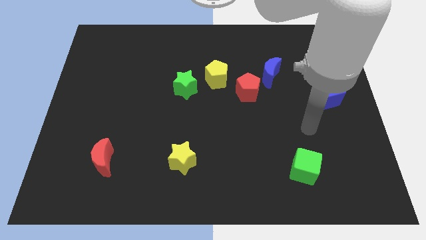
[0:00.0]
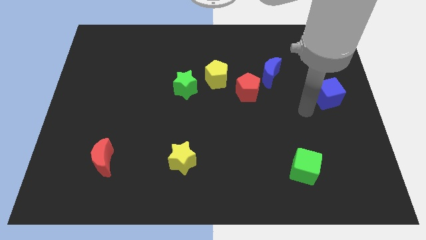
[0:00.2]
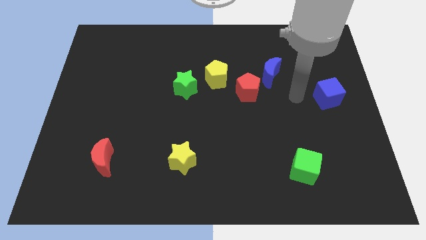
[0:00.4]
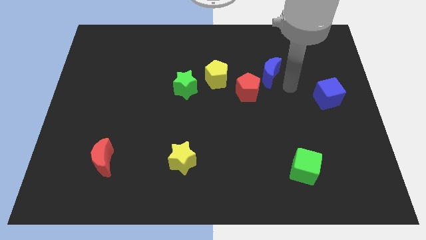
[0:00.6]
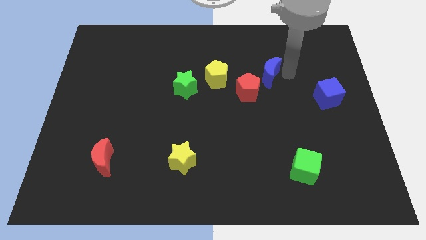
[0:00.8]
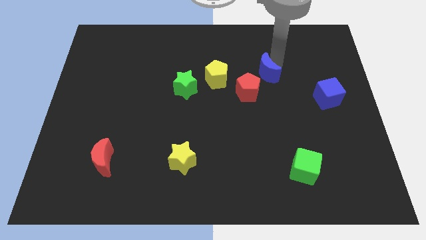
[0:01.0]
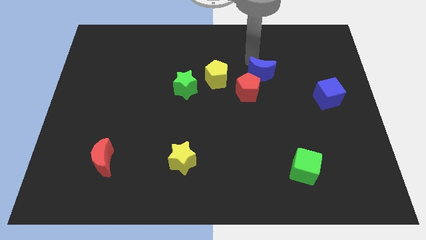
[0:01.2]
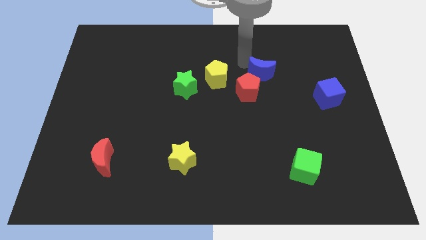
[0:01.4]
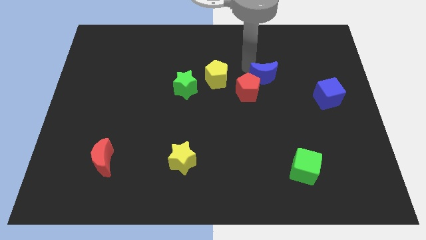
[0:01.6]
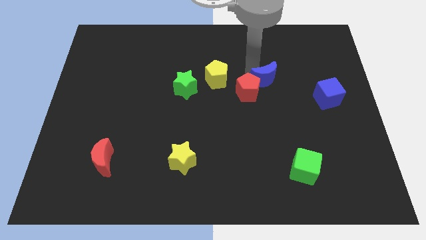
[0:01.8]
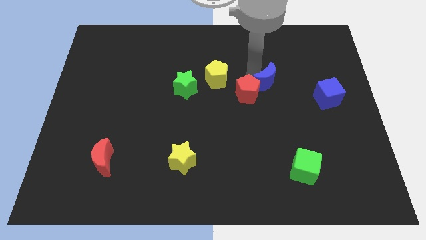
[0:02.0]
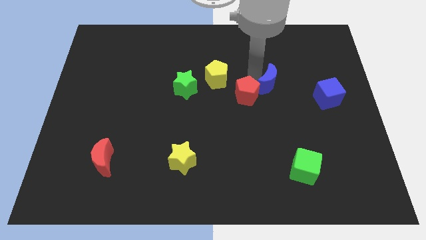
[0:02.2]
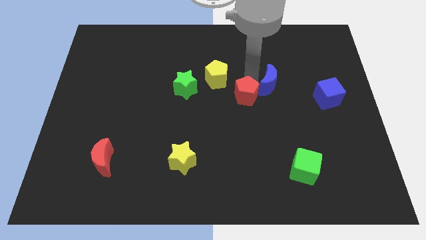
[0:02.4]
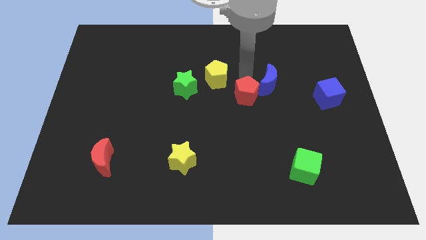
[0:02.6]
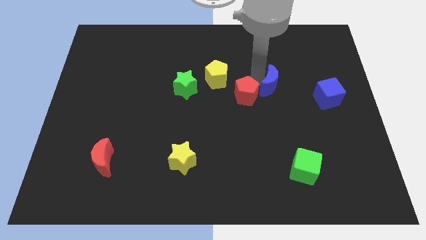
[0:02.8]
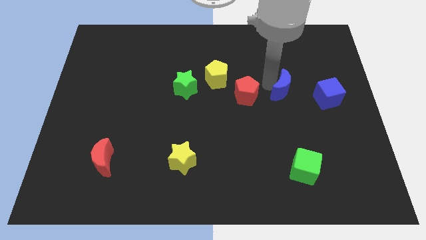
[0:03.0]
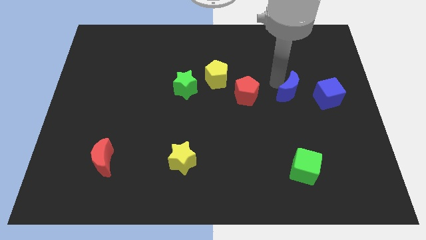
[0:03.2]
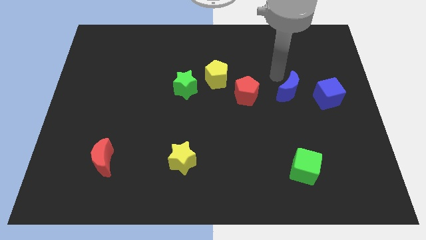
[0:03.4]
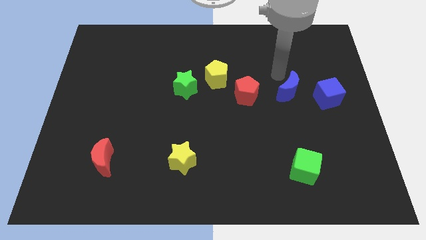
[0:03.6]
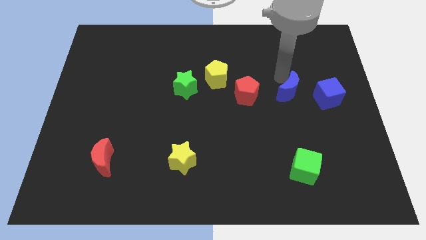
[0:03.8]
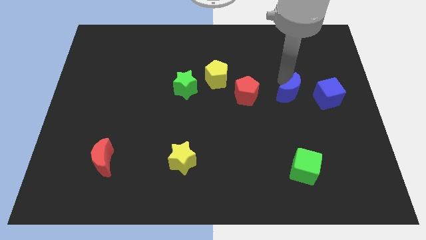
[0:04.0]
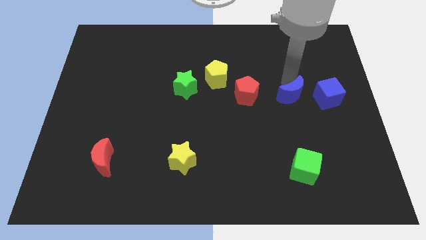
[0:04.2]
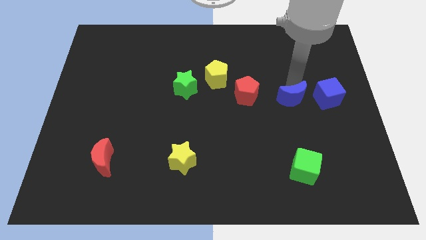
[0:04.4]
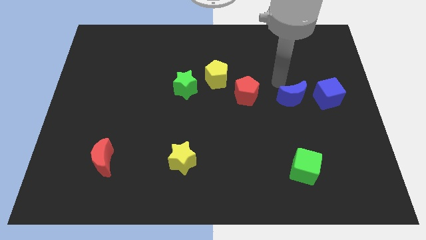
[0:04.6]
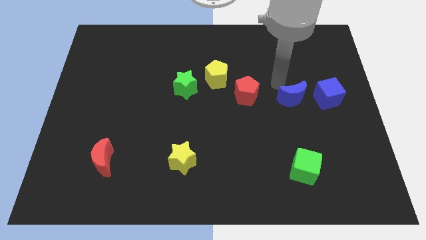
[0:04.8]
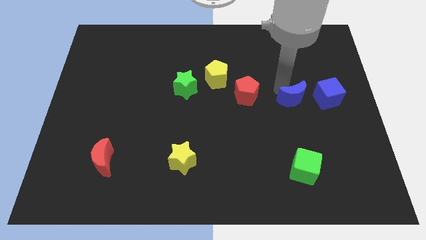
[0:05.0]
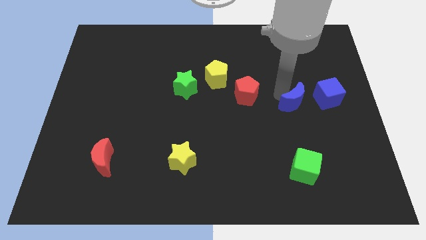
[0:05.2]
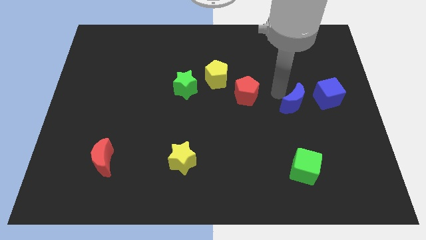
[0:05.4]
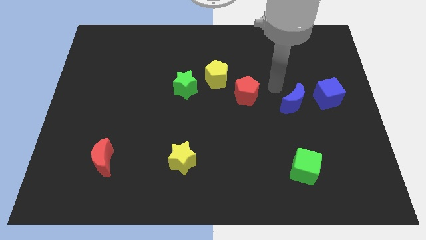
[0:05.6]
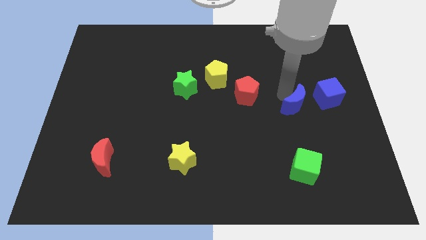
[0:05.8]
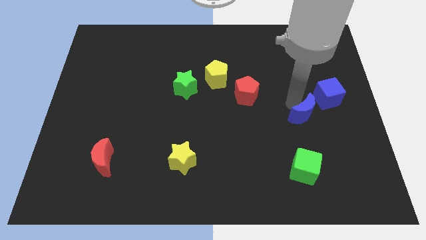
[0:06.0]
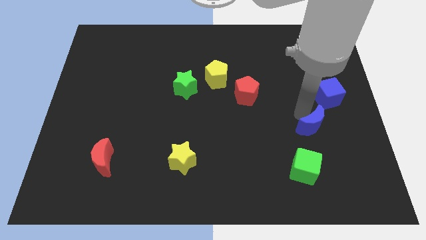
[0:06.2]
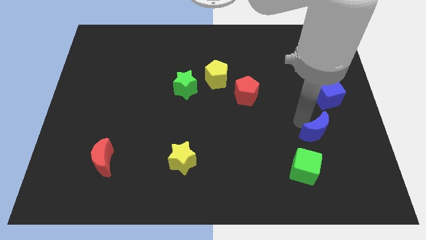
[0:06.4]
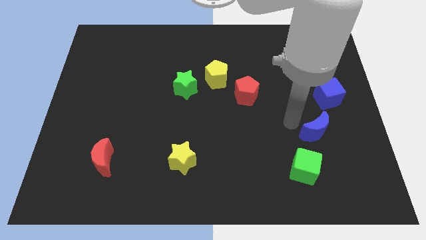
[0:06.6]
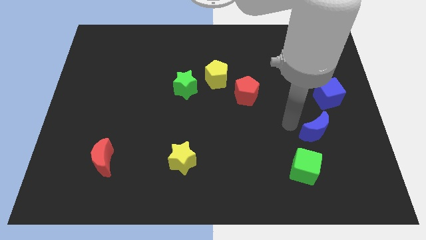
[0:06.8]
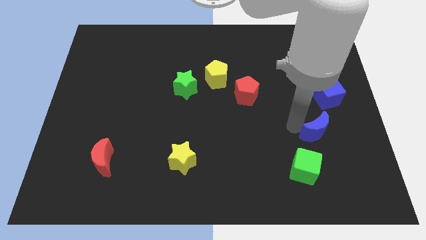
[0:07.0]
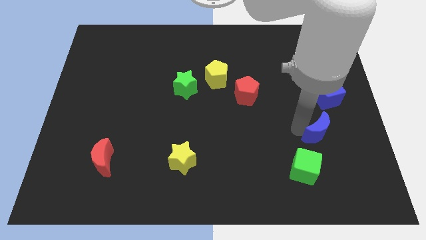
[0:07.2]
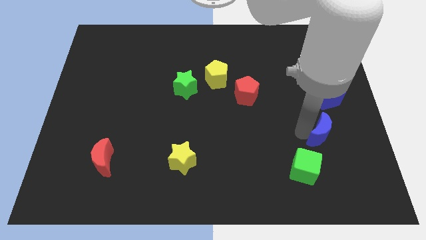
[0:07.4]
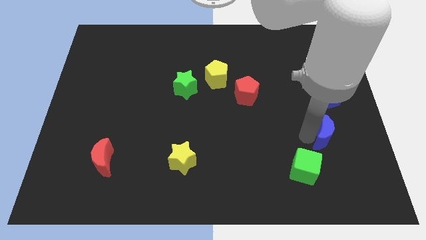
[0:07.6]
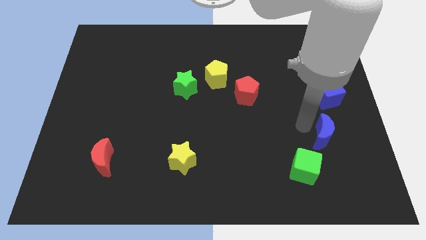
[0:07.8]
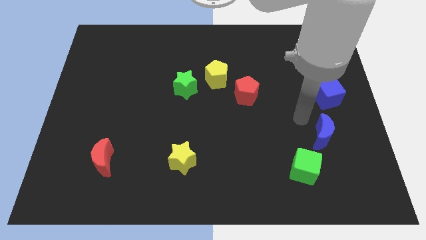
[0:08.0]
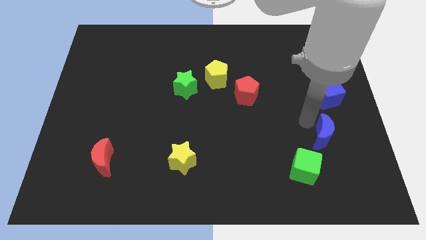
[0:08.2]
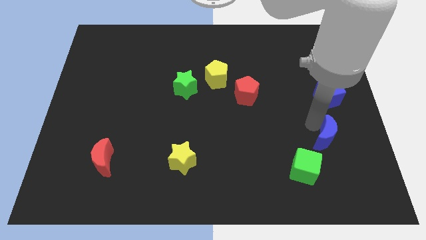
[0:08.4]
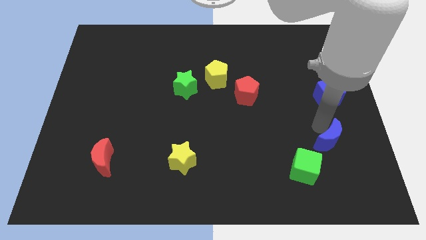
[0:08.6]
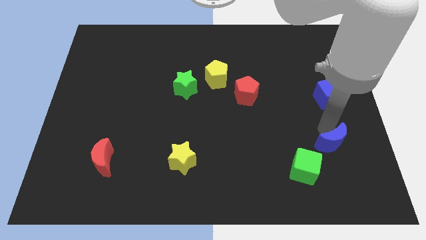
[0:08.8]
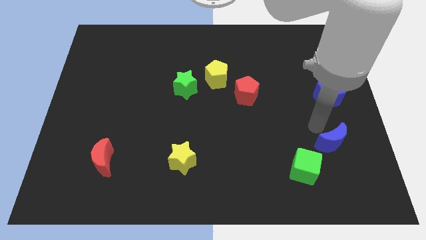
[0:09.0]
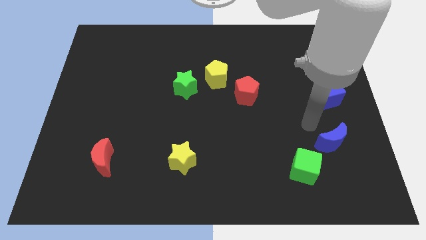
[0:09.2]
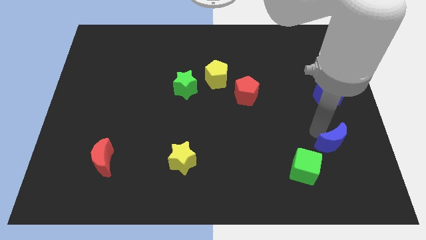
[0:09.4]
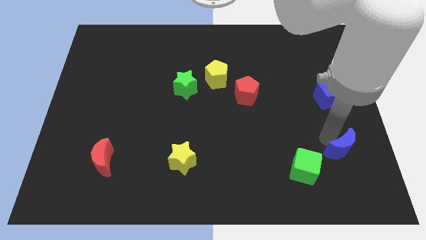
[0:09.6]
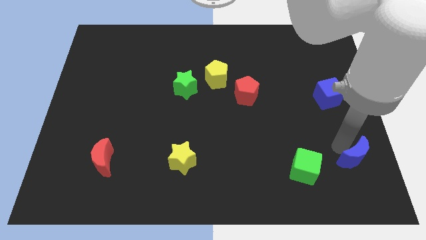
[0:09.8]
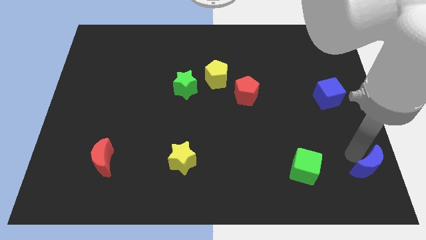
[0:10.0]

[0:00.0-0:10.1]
slide the blue moon to the bottom right corner

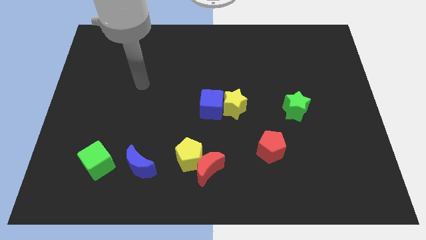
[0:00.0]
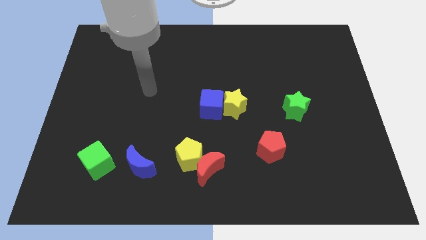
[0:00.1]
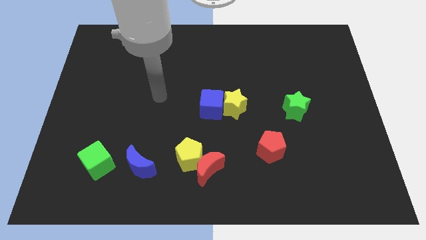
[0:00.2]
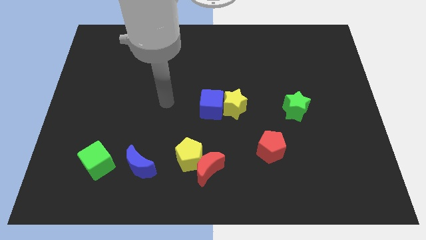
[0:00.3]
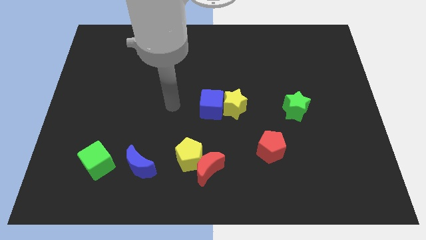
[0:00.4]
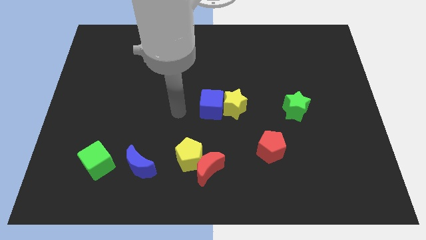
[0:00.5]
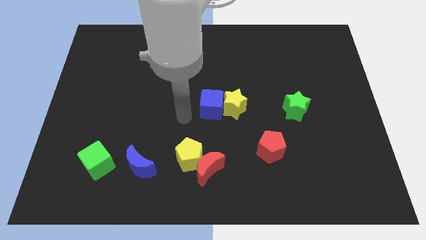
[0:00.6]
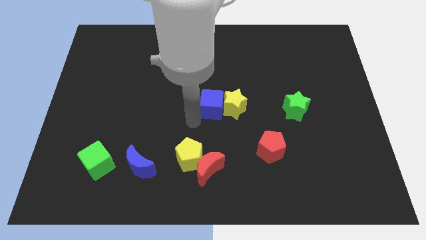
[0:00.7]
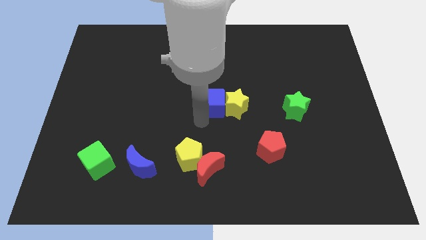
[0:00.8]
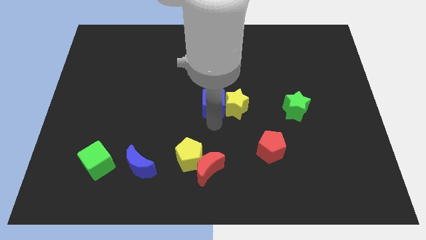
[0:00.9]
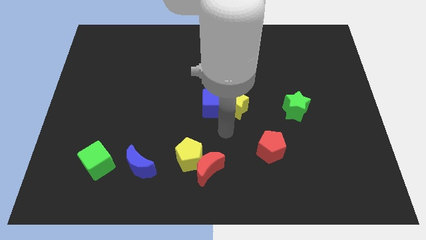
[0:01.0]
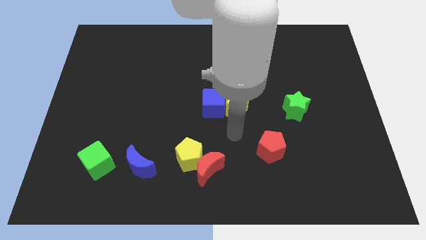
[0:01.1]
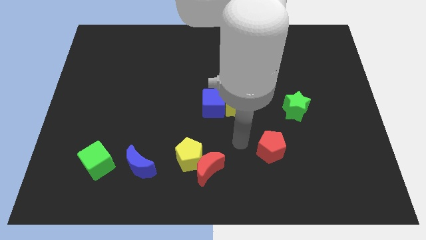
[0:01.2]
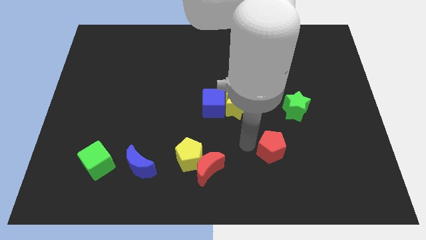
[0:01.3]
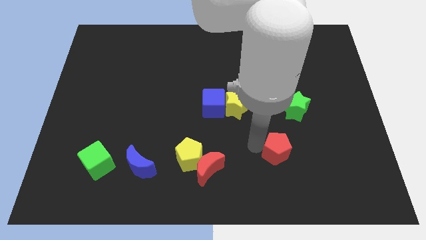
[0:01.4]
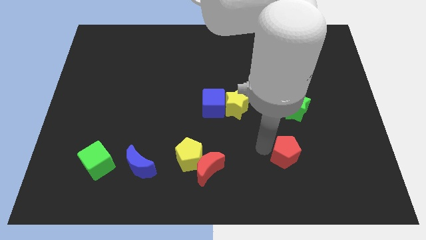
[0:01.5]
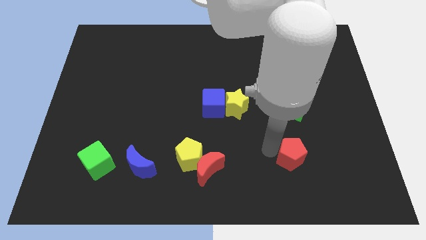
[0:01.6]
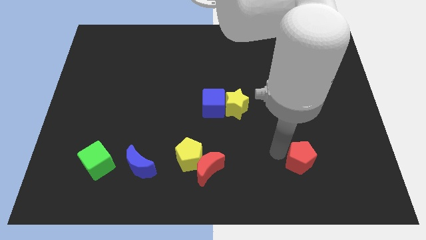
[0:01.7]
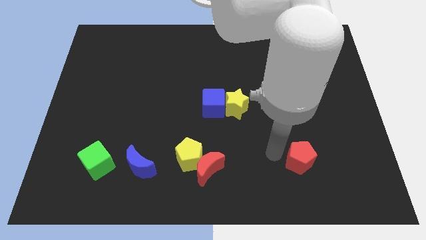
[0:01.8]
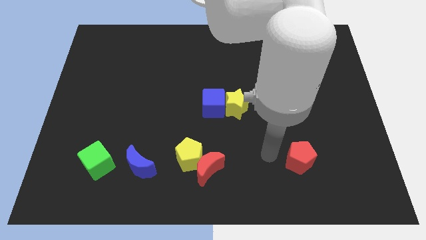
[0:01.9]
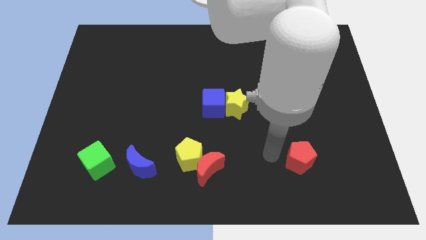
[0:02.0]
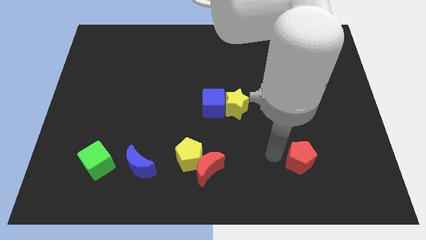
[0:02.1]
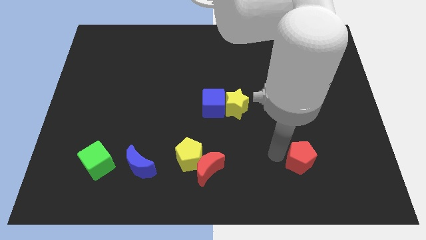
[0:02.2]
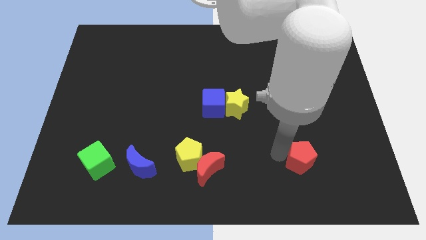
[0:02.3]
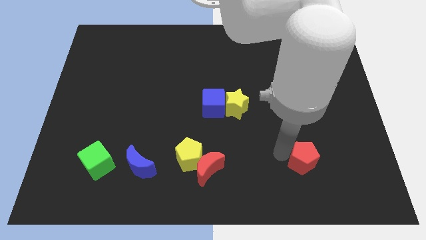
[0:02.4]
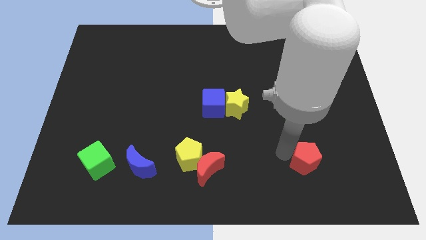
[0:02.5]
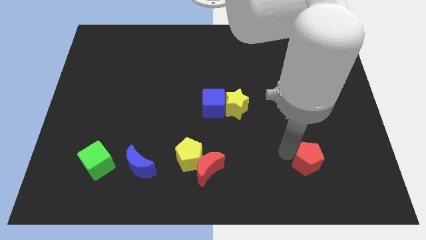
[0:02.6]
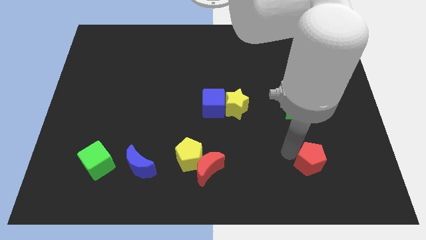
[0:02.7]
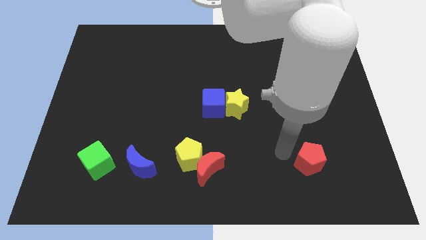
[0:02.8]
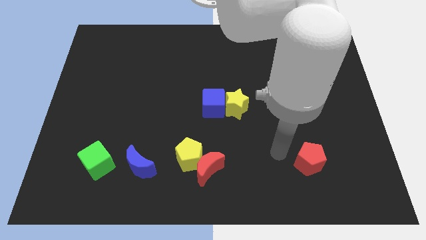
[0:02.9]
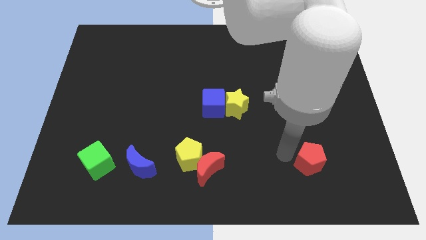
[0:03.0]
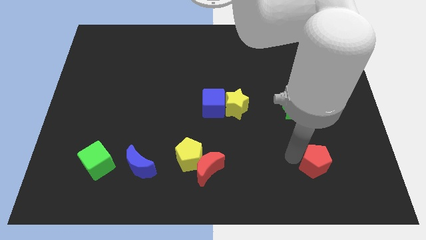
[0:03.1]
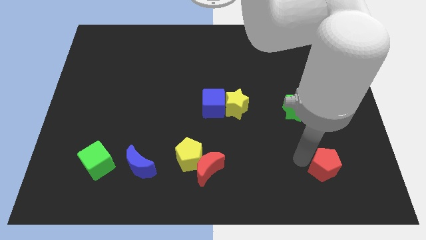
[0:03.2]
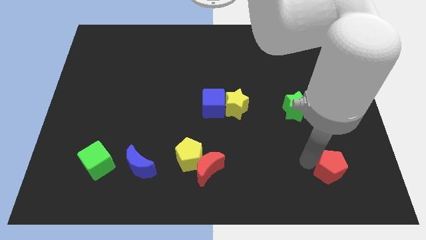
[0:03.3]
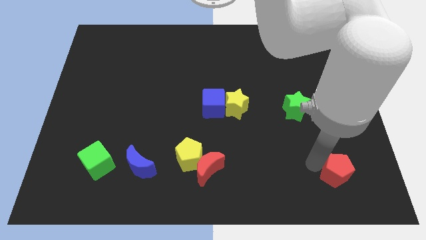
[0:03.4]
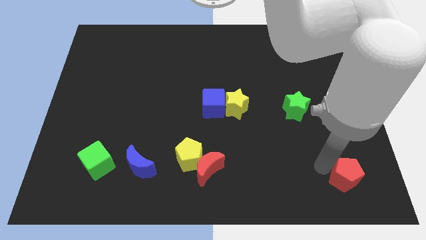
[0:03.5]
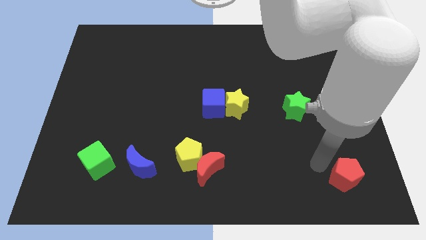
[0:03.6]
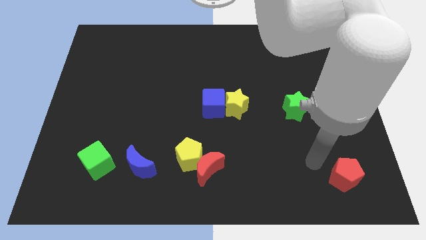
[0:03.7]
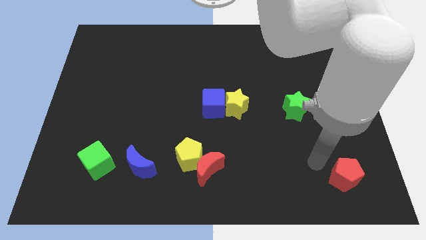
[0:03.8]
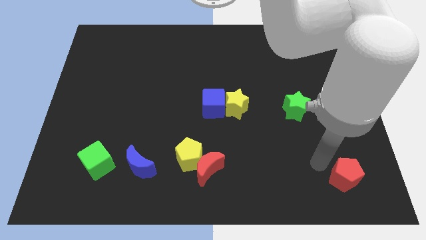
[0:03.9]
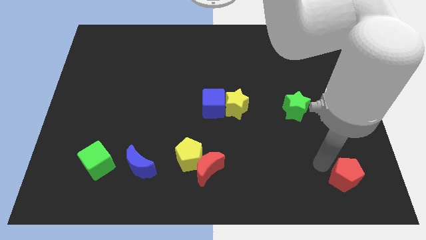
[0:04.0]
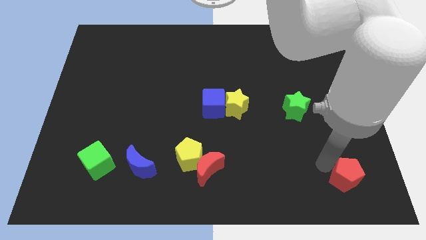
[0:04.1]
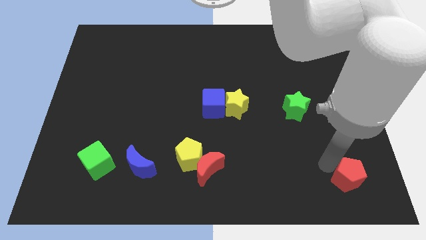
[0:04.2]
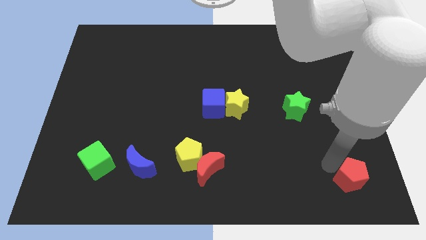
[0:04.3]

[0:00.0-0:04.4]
slide the red pentagon to the bottom right of the board
